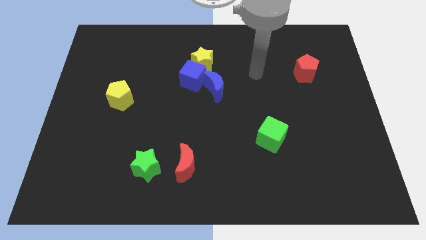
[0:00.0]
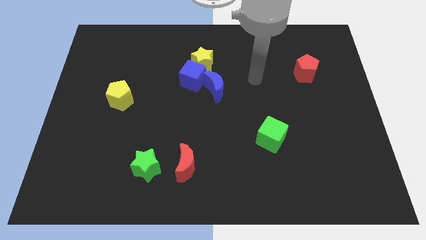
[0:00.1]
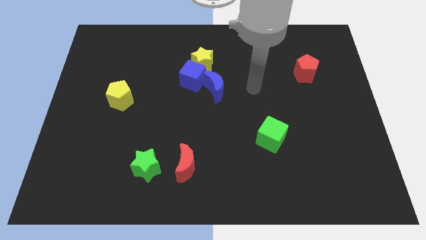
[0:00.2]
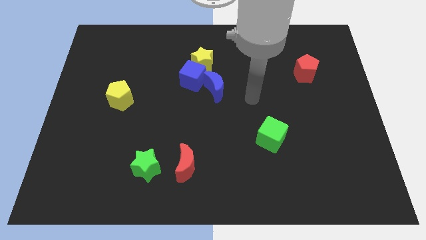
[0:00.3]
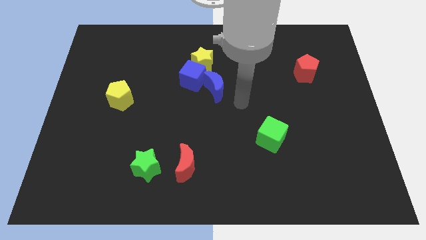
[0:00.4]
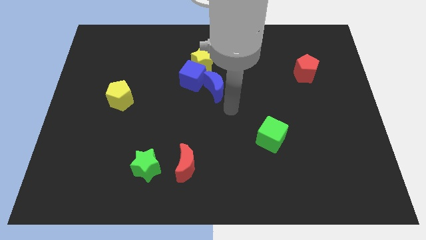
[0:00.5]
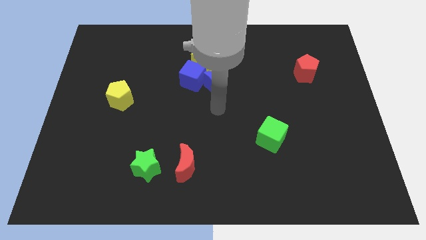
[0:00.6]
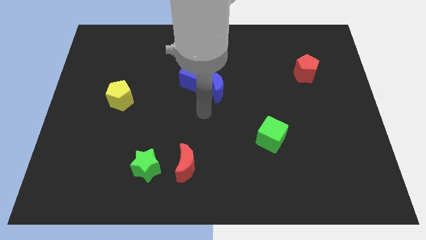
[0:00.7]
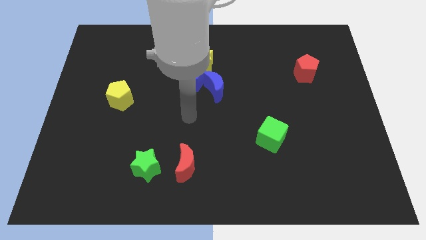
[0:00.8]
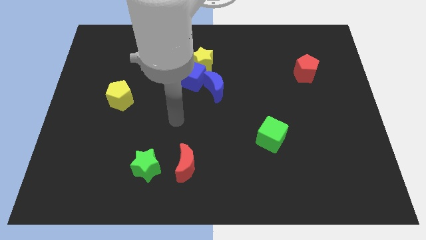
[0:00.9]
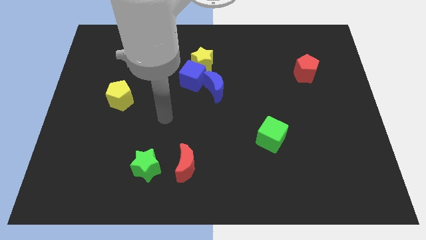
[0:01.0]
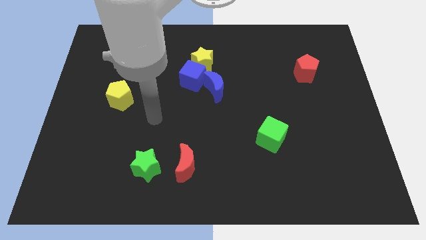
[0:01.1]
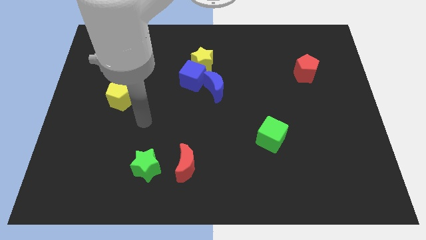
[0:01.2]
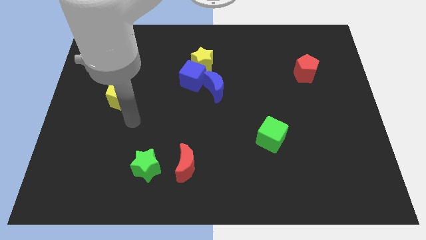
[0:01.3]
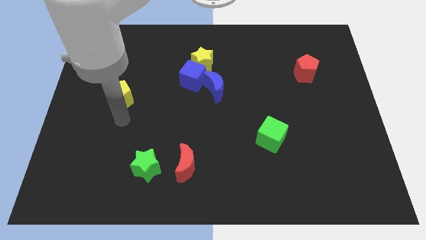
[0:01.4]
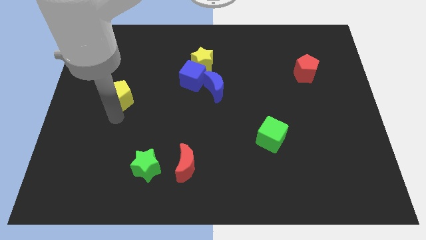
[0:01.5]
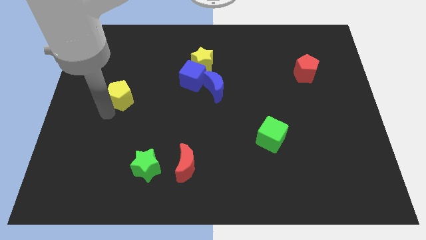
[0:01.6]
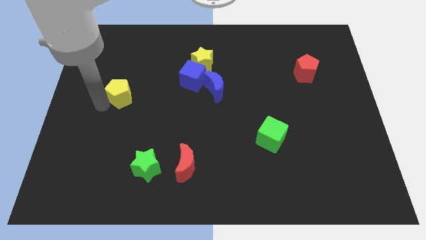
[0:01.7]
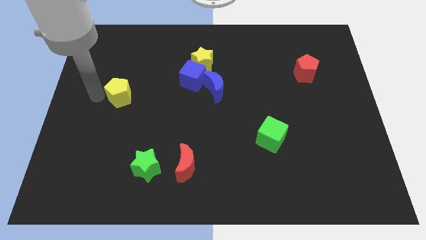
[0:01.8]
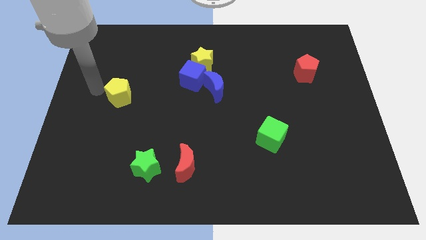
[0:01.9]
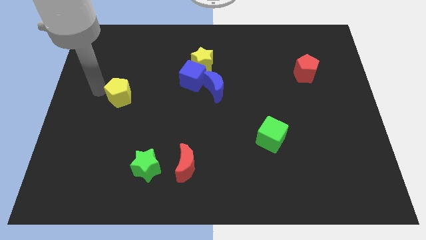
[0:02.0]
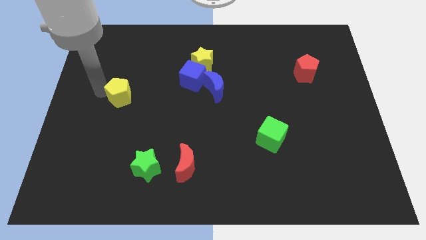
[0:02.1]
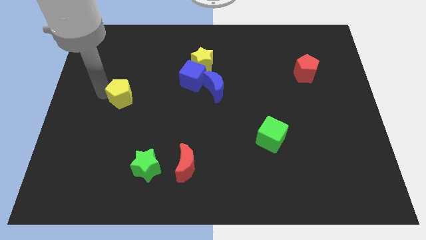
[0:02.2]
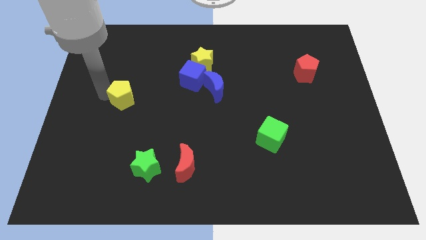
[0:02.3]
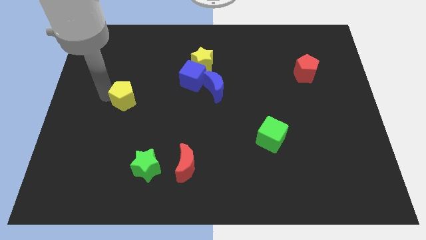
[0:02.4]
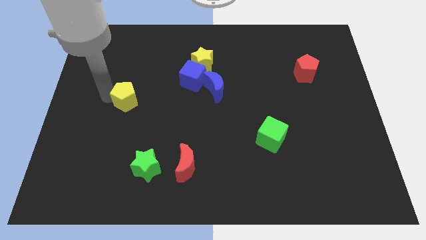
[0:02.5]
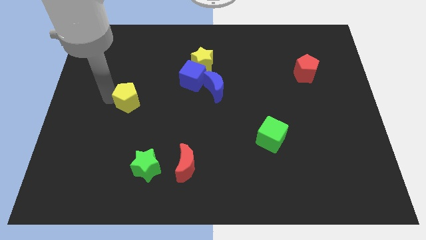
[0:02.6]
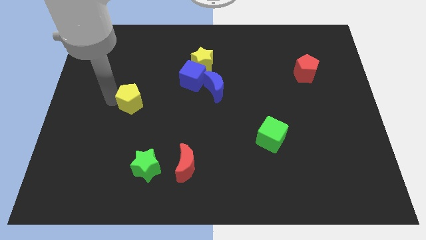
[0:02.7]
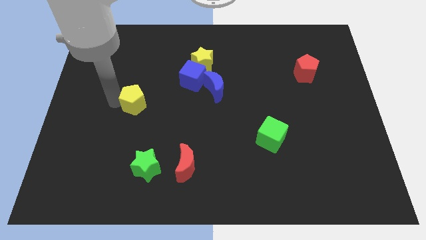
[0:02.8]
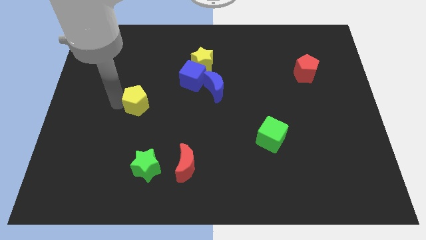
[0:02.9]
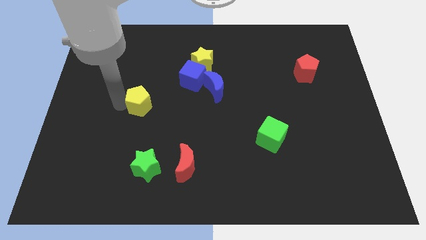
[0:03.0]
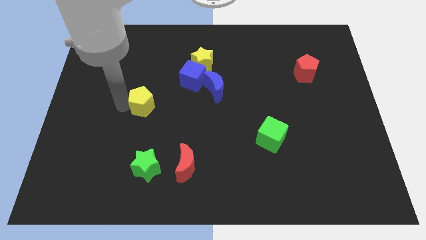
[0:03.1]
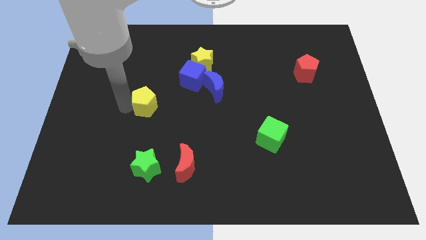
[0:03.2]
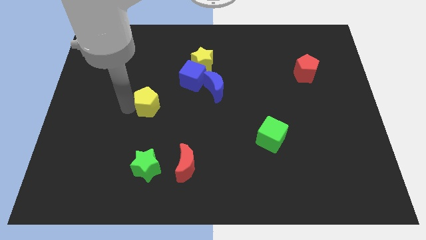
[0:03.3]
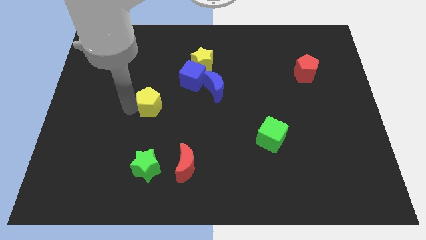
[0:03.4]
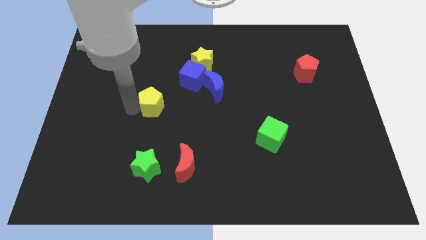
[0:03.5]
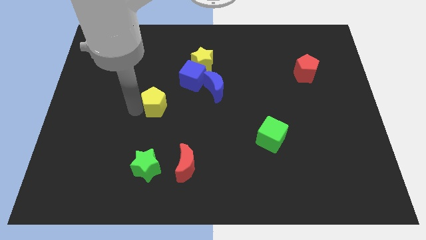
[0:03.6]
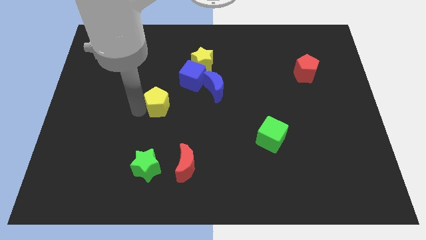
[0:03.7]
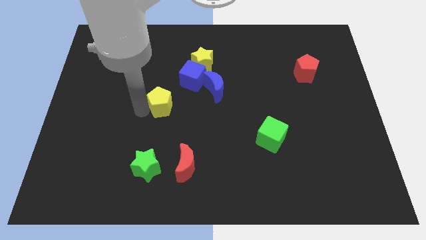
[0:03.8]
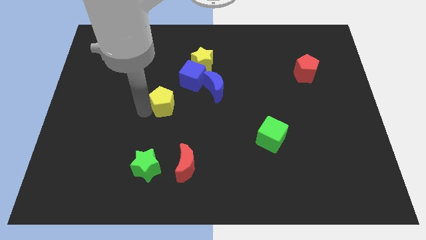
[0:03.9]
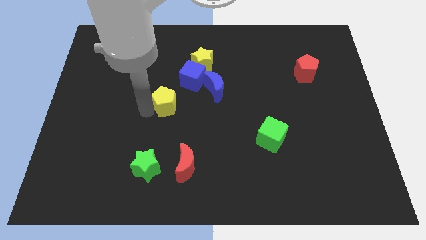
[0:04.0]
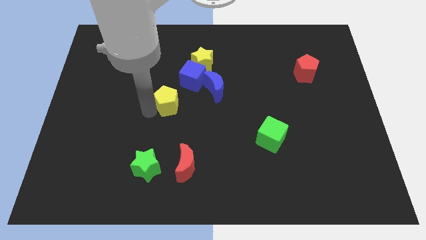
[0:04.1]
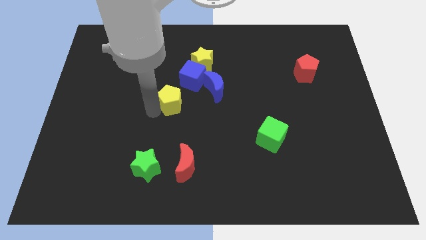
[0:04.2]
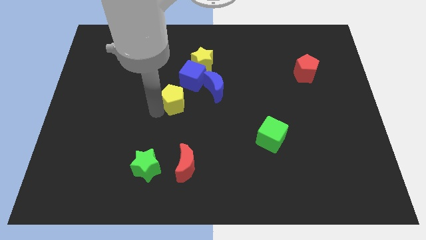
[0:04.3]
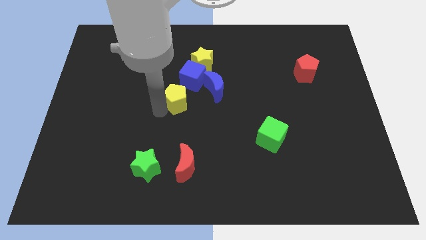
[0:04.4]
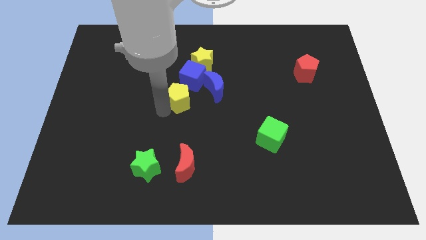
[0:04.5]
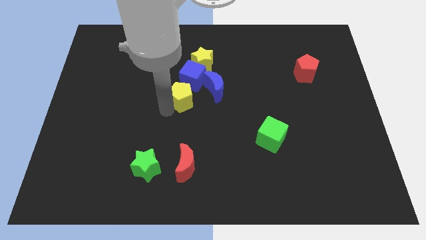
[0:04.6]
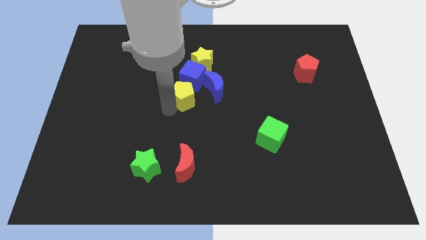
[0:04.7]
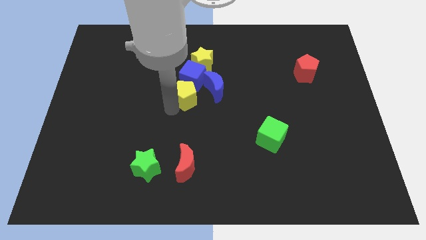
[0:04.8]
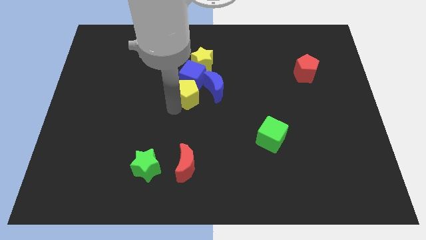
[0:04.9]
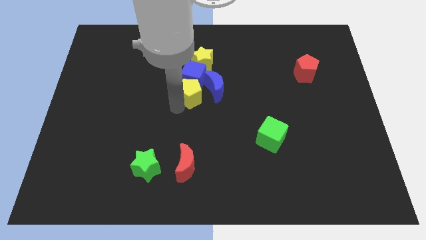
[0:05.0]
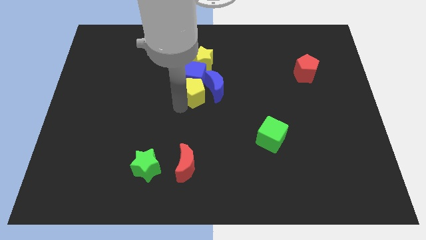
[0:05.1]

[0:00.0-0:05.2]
slide the yellow pentagon towards the blue moon

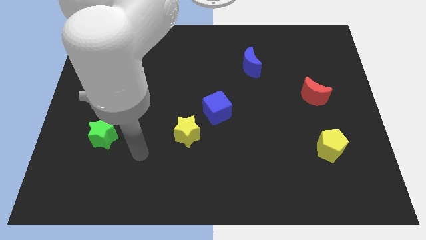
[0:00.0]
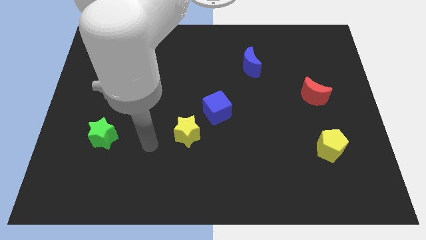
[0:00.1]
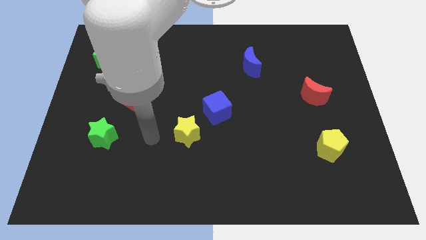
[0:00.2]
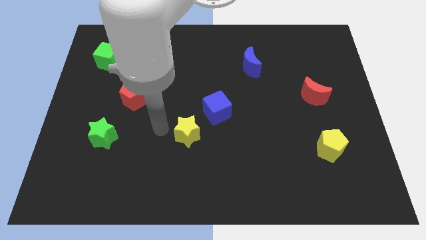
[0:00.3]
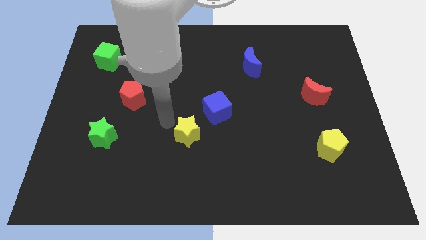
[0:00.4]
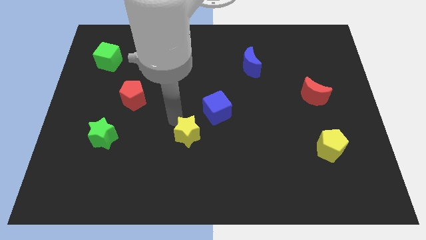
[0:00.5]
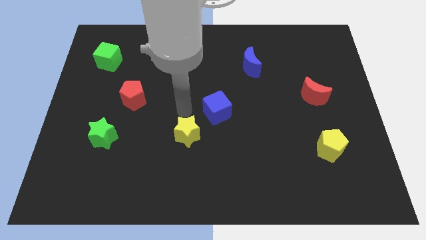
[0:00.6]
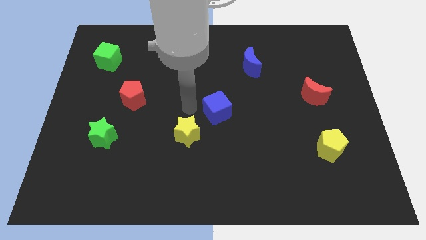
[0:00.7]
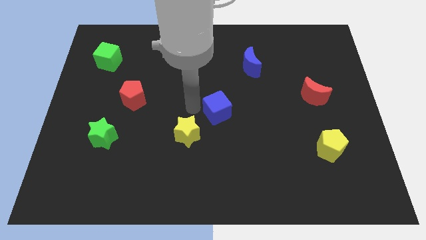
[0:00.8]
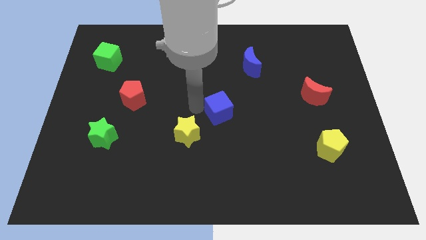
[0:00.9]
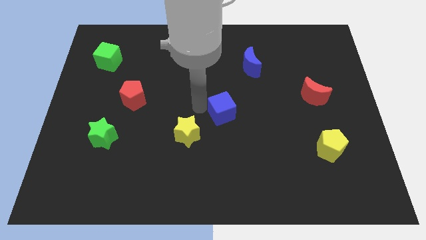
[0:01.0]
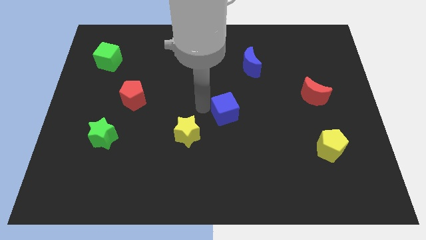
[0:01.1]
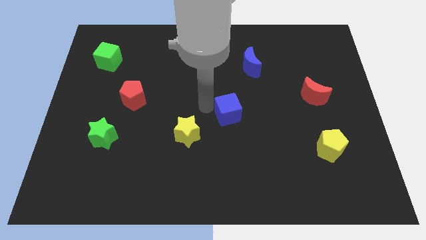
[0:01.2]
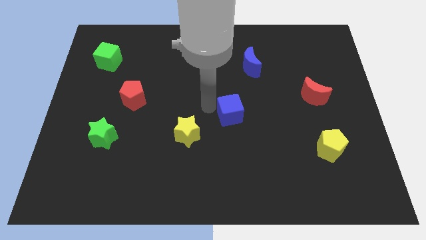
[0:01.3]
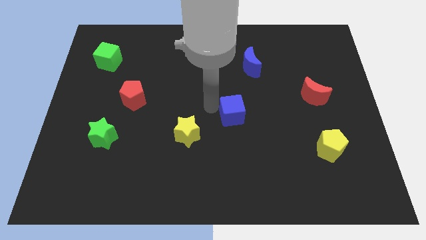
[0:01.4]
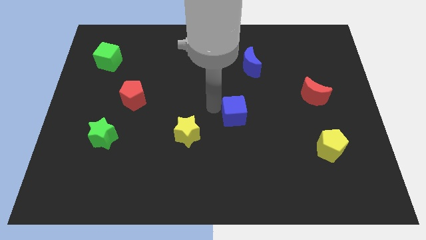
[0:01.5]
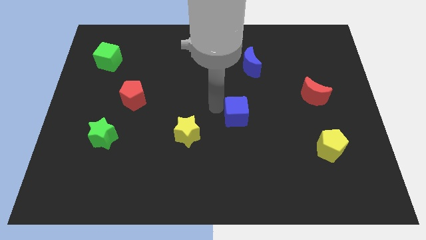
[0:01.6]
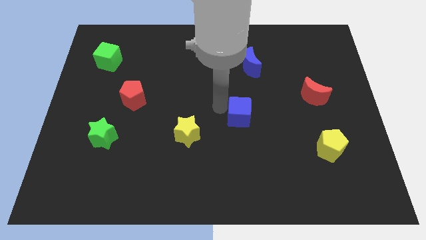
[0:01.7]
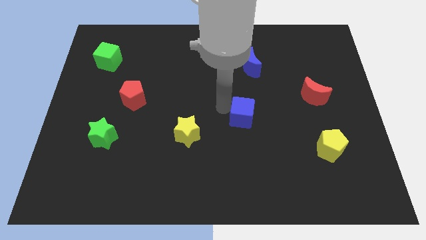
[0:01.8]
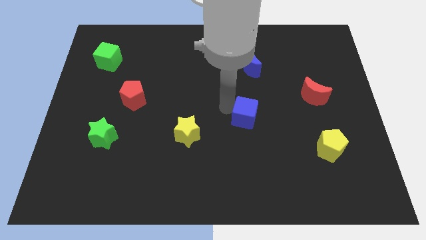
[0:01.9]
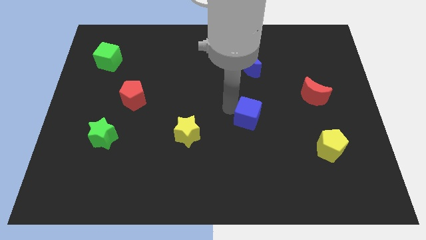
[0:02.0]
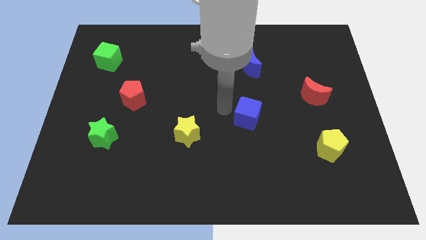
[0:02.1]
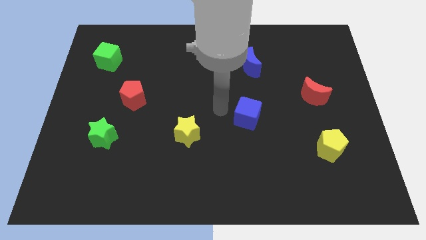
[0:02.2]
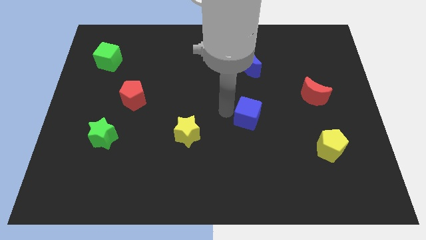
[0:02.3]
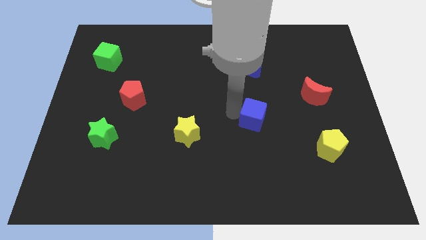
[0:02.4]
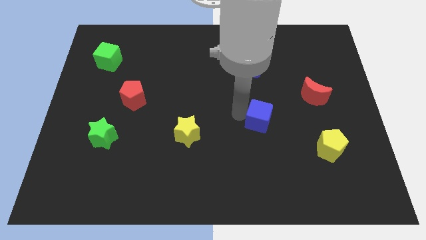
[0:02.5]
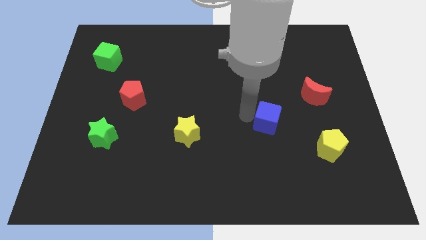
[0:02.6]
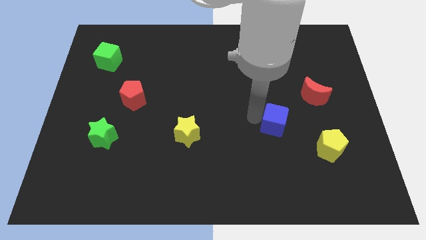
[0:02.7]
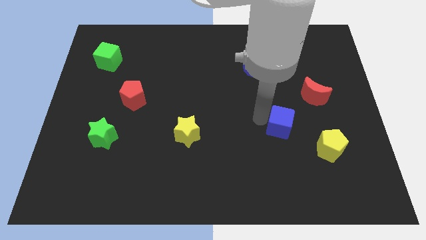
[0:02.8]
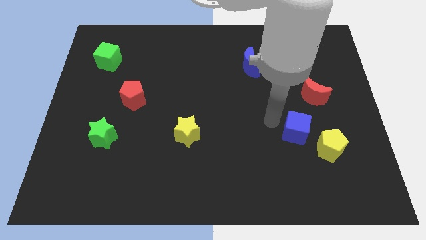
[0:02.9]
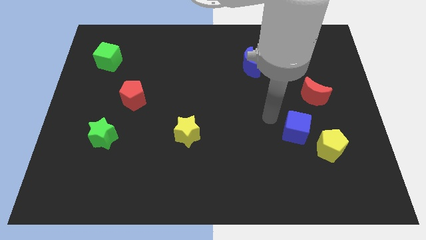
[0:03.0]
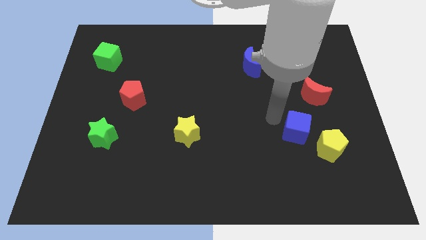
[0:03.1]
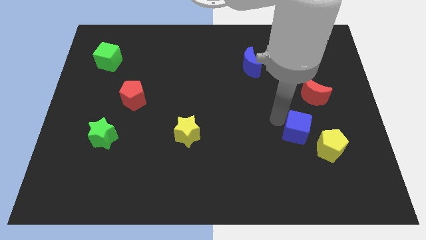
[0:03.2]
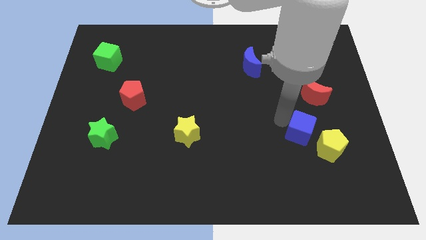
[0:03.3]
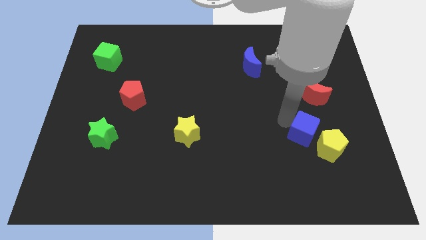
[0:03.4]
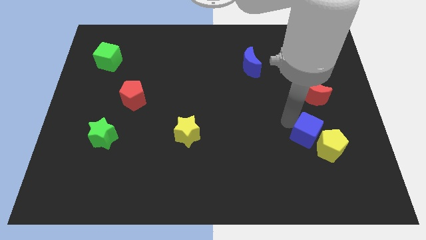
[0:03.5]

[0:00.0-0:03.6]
slide the blue cube close to the yellow pentagon
